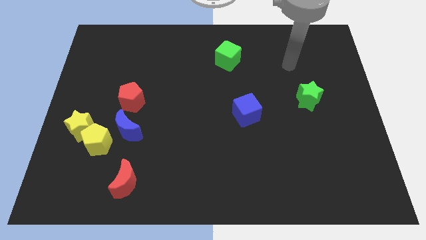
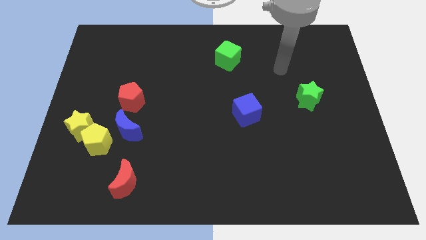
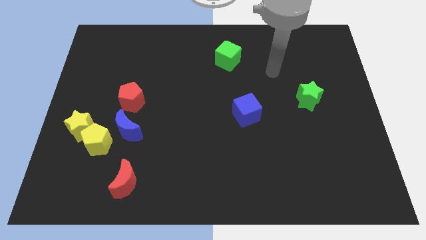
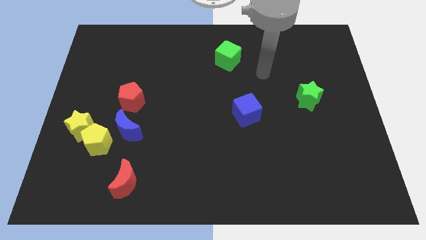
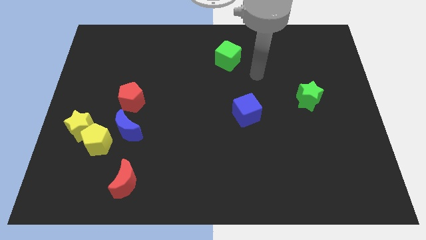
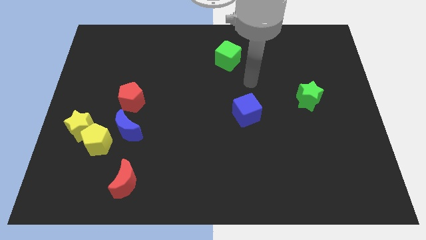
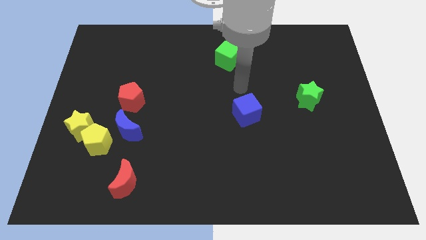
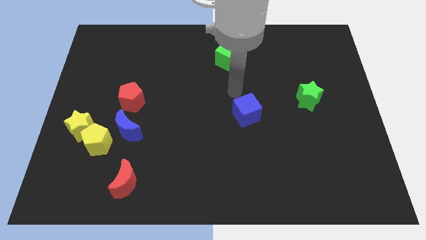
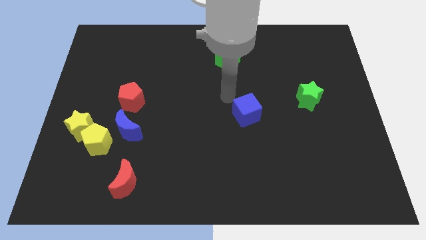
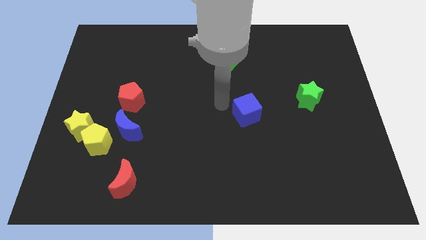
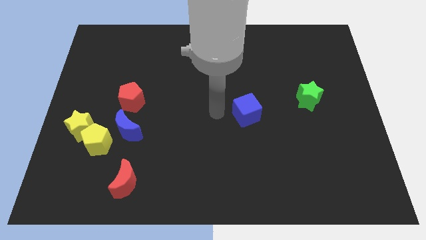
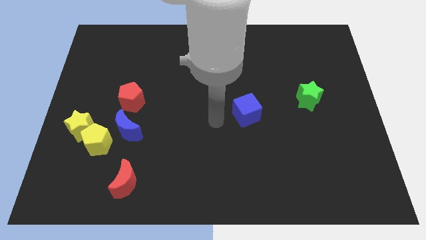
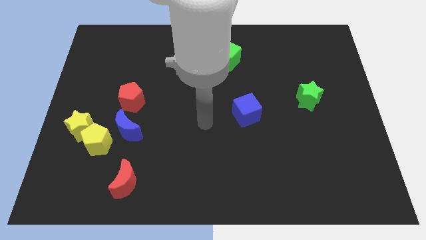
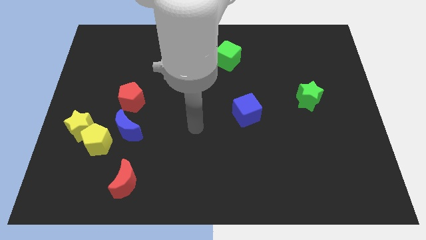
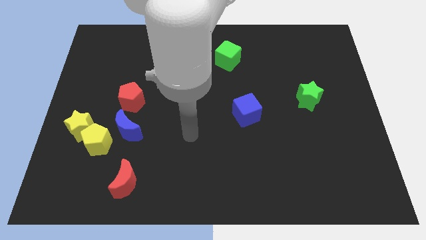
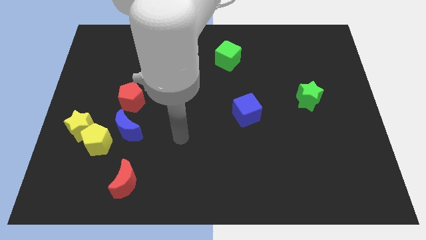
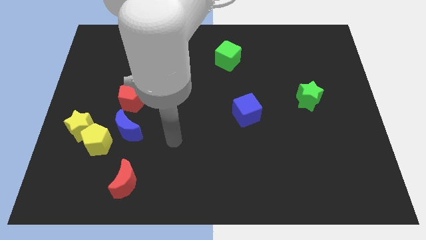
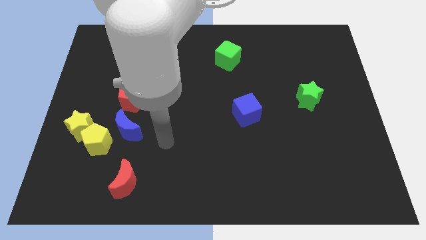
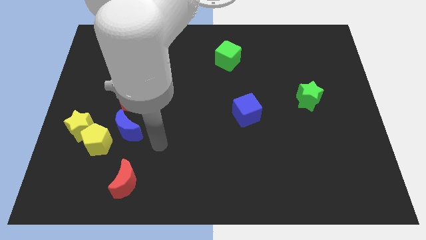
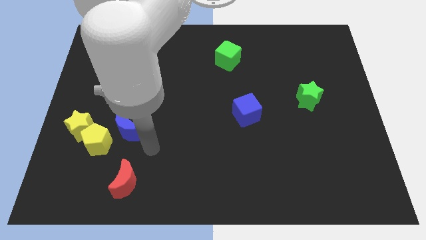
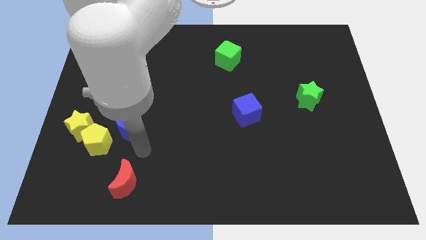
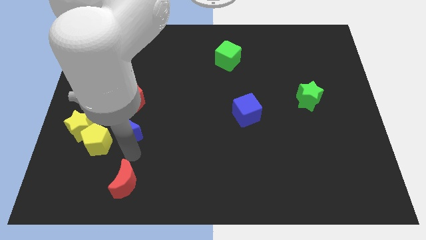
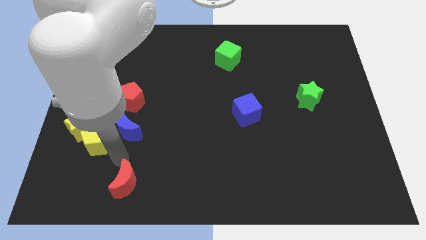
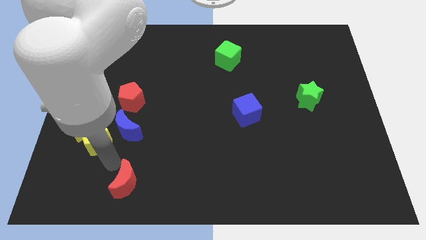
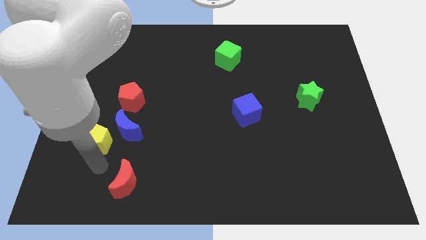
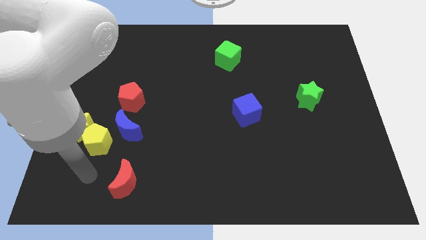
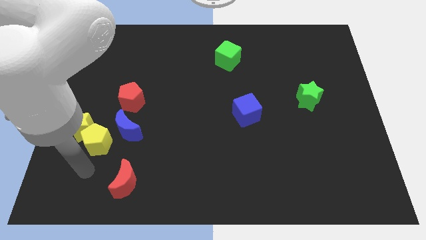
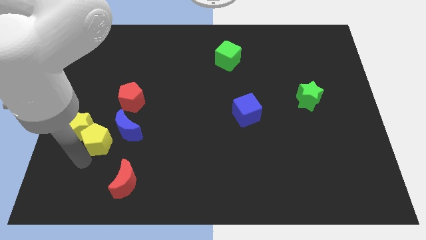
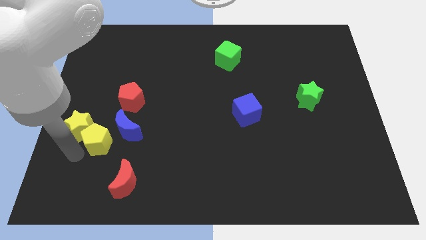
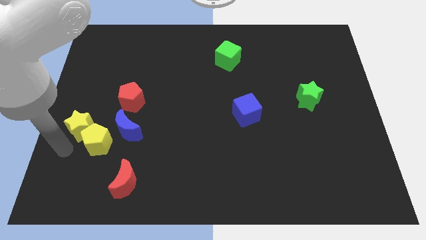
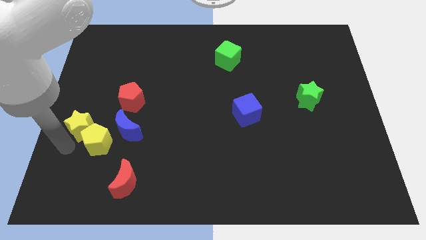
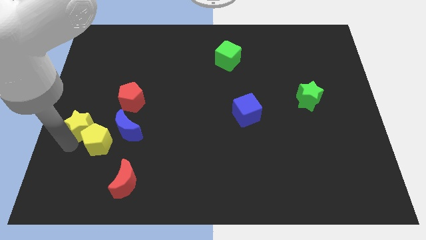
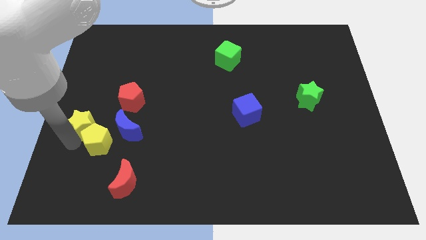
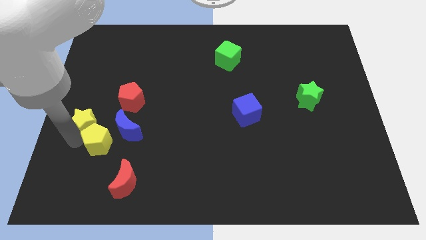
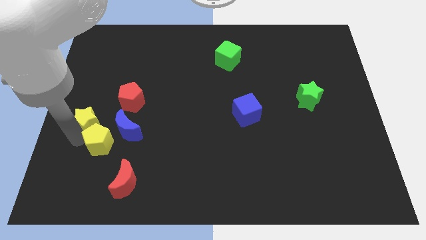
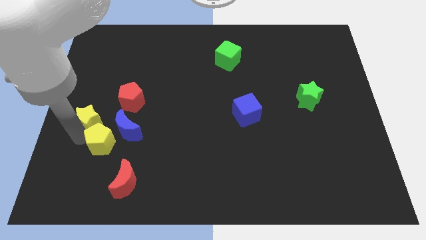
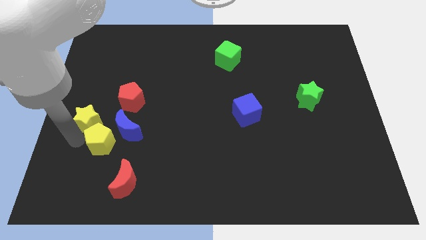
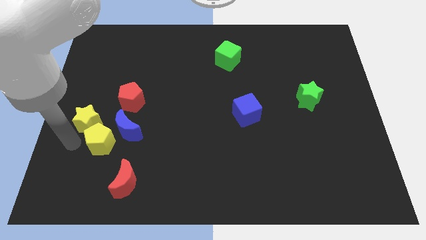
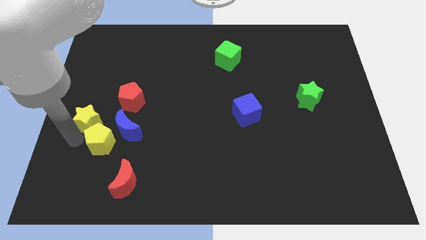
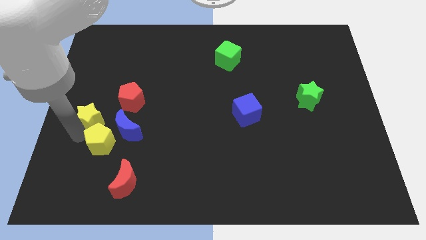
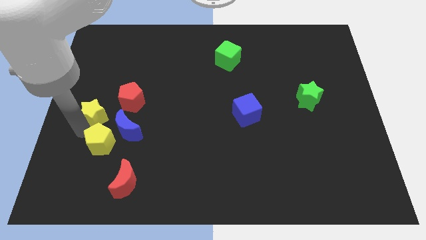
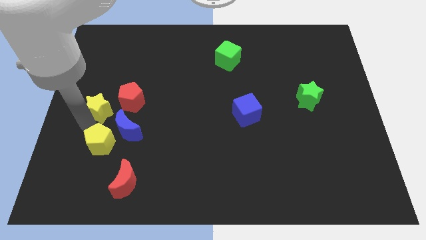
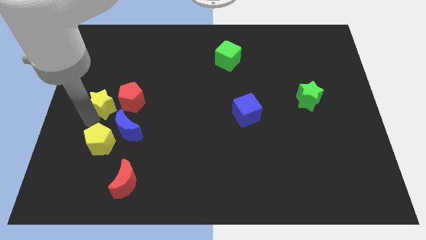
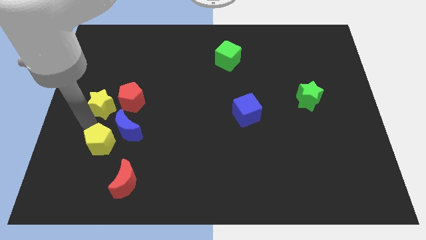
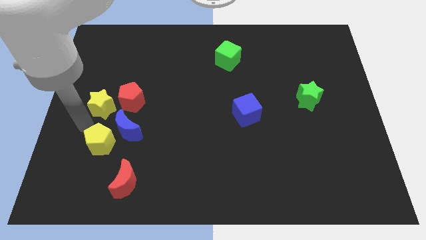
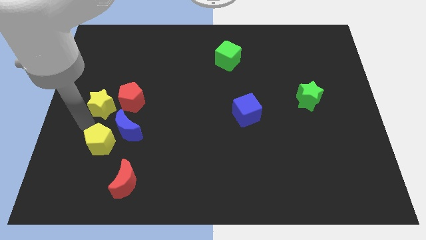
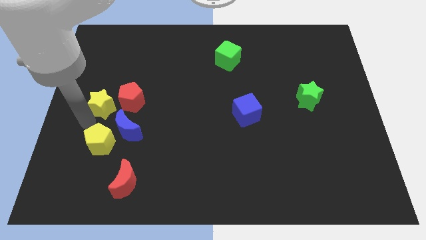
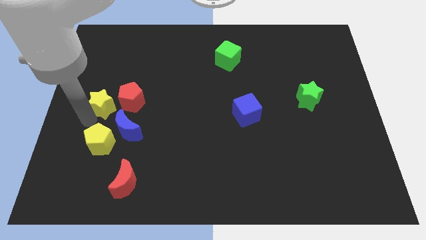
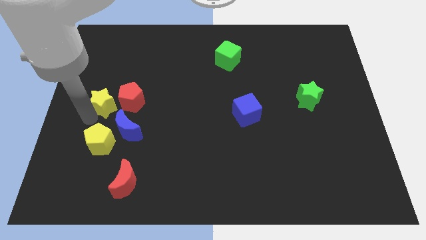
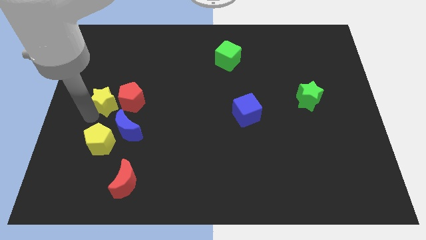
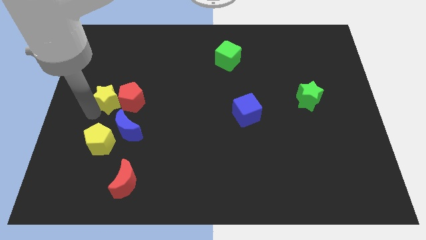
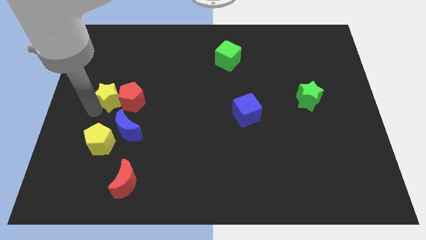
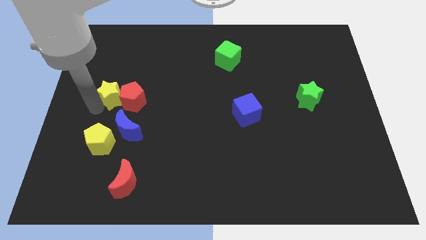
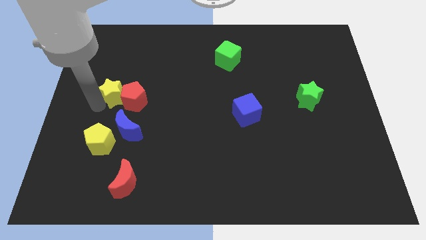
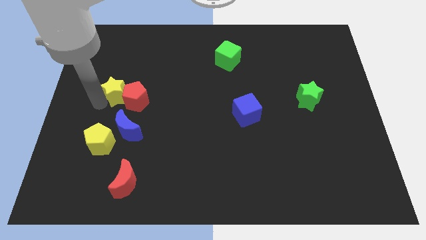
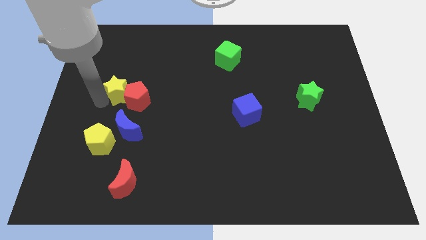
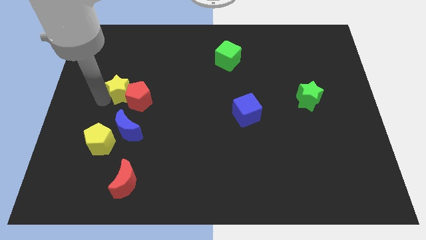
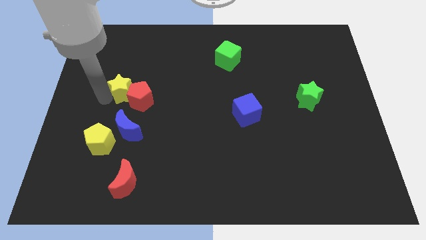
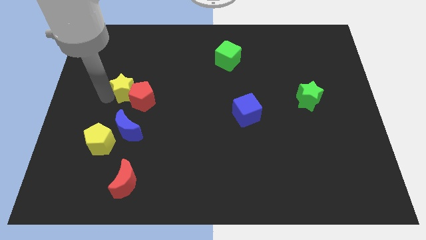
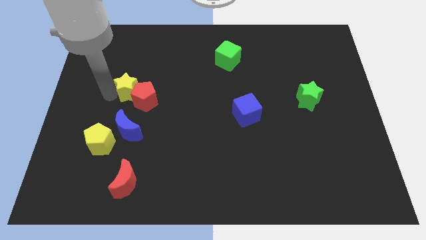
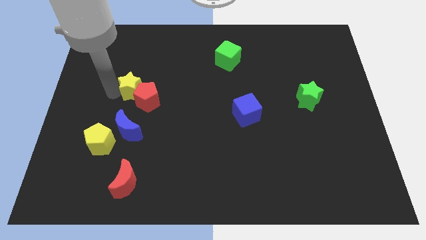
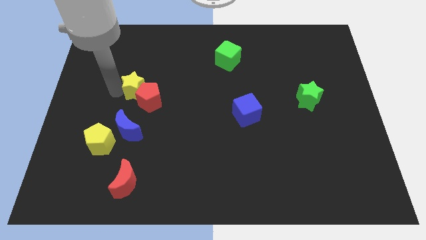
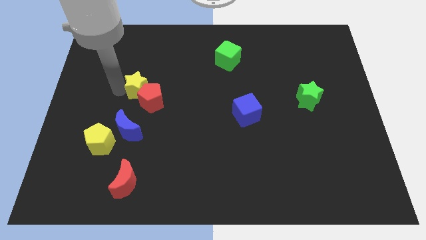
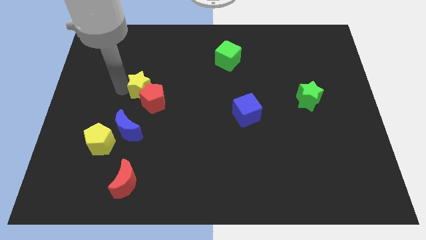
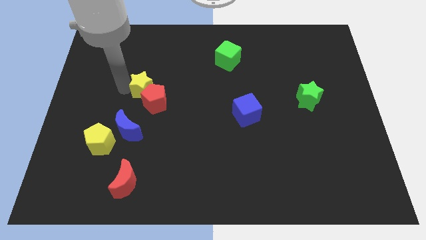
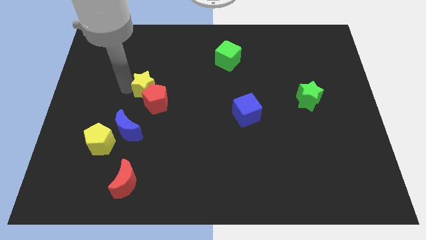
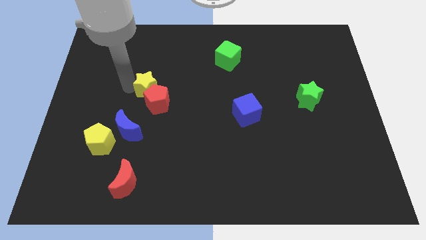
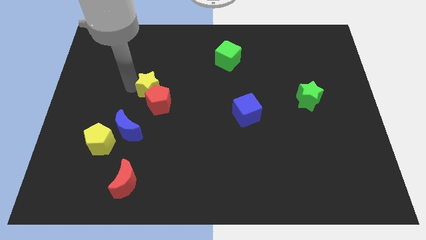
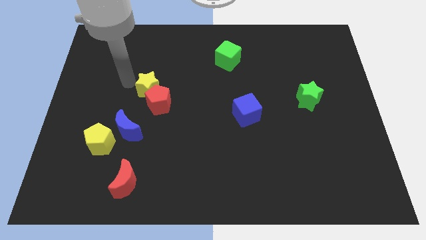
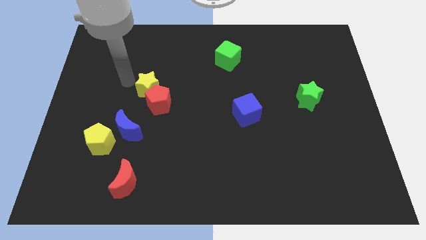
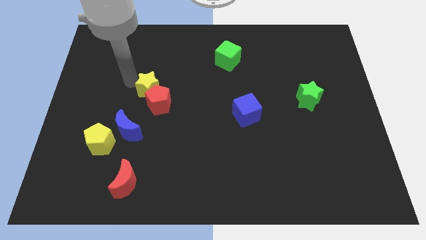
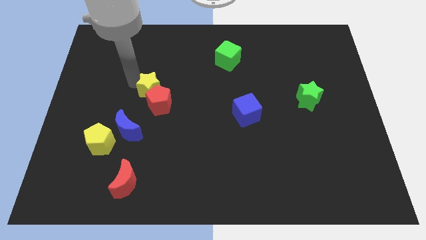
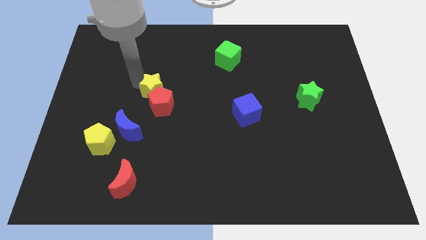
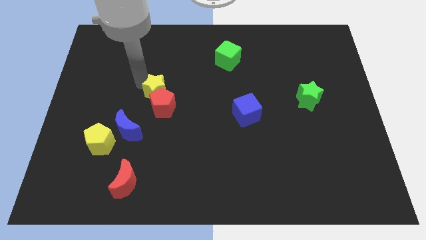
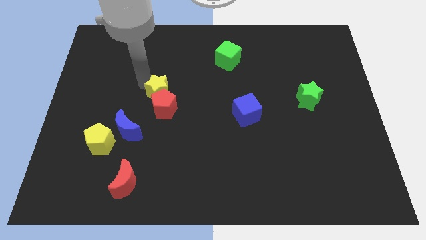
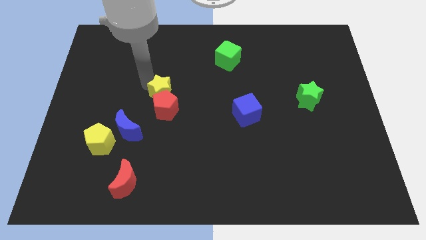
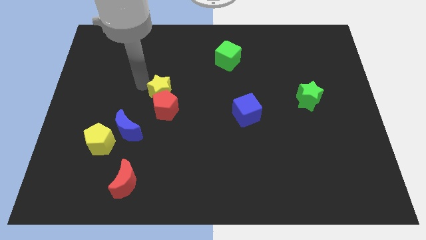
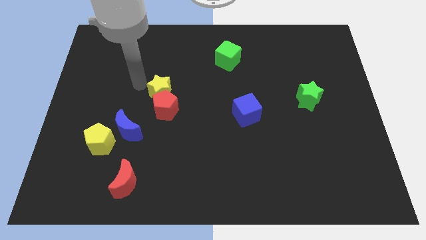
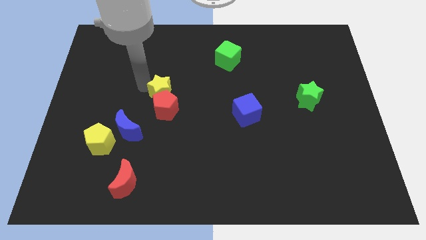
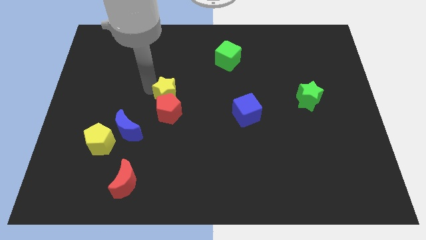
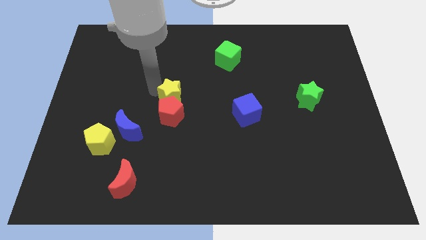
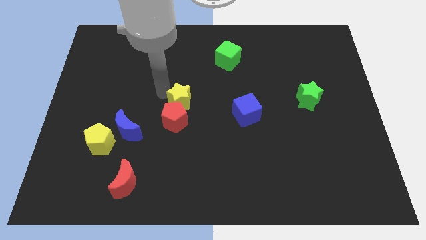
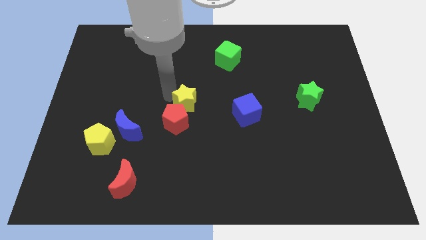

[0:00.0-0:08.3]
push the yellow star right
